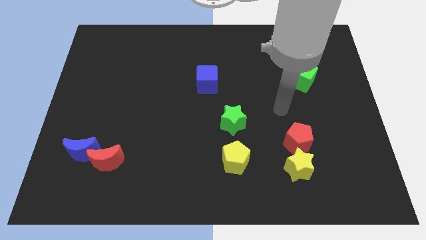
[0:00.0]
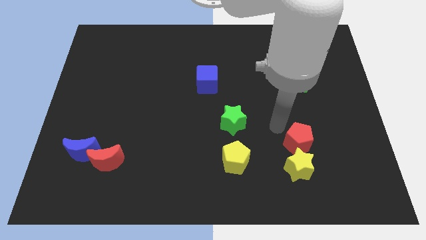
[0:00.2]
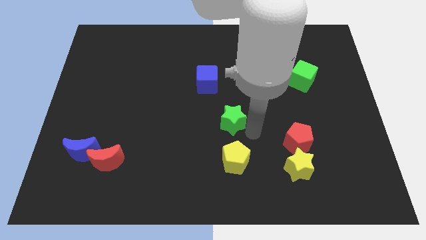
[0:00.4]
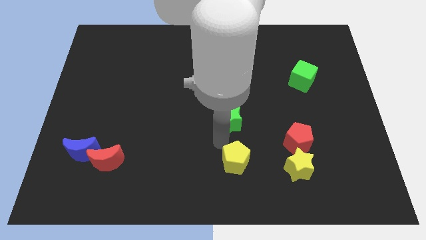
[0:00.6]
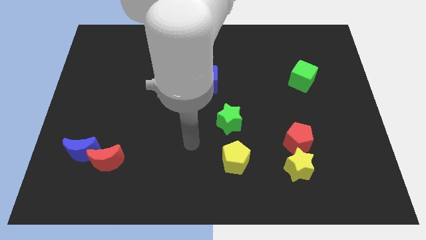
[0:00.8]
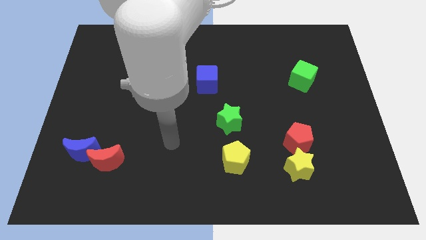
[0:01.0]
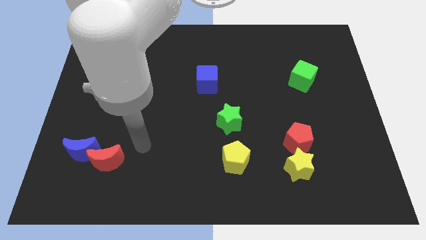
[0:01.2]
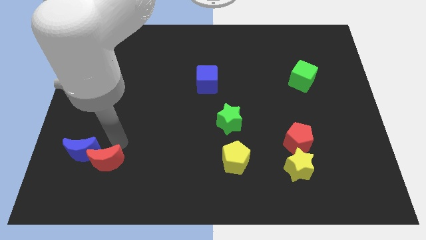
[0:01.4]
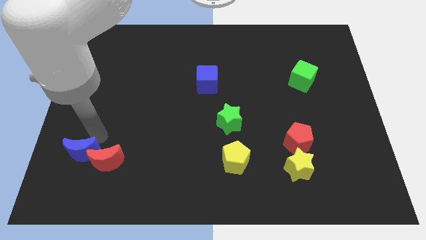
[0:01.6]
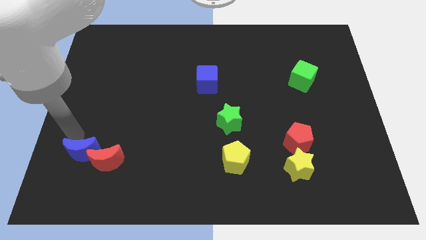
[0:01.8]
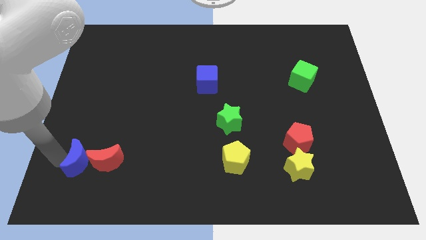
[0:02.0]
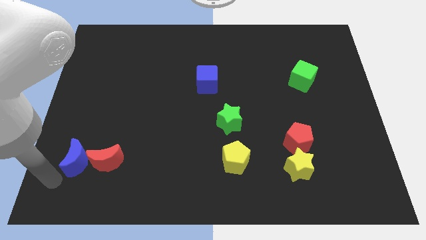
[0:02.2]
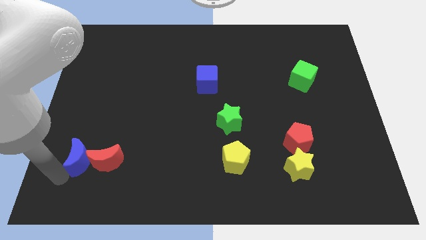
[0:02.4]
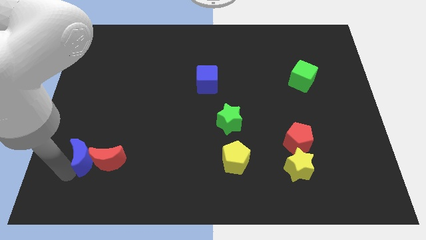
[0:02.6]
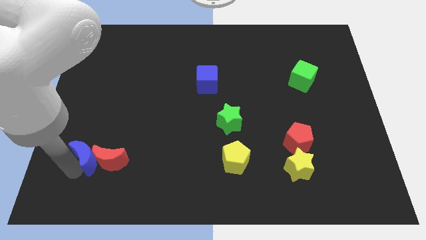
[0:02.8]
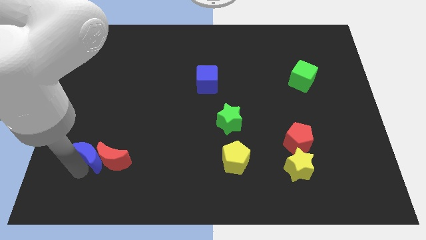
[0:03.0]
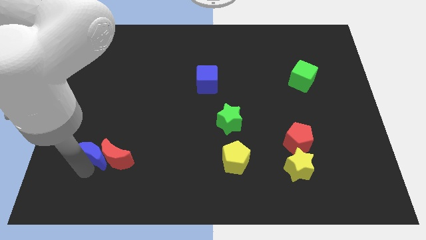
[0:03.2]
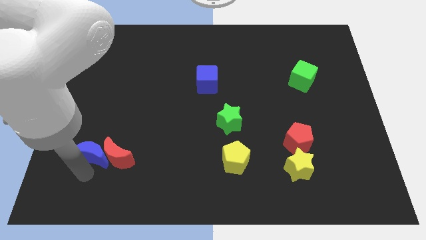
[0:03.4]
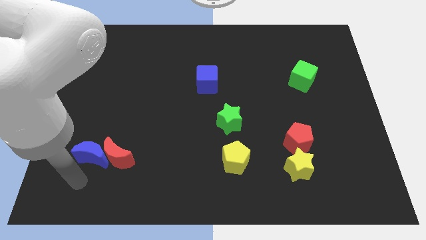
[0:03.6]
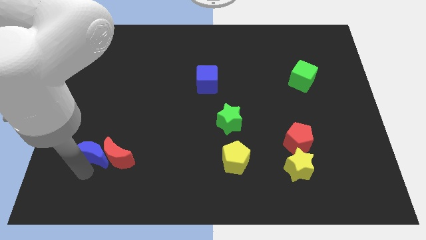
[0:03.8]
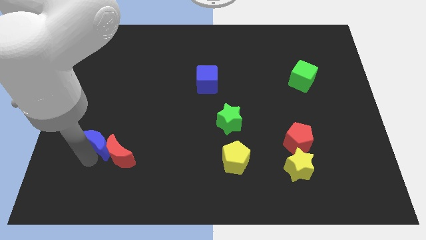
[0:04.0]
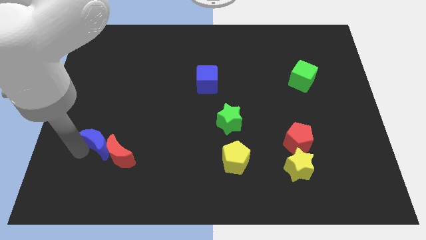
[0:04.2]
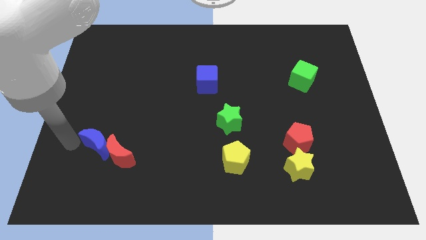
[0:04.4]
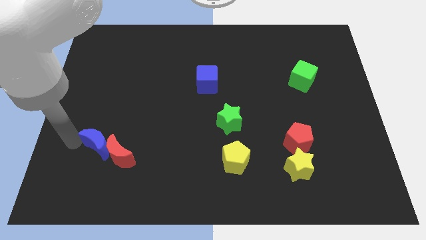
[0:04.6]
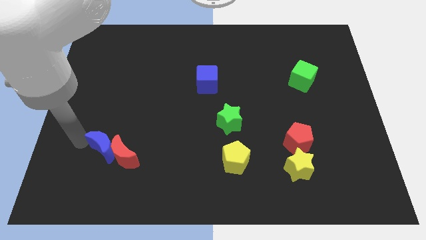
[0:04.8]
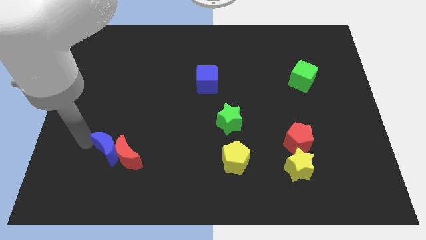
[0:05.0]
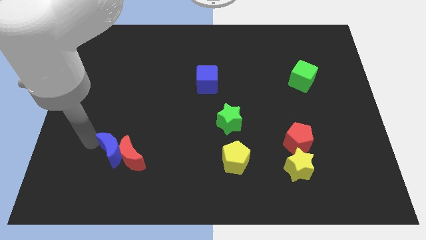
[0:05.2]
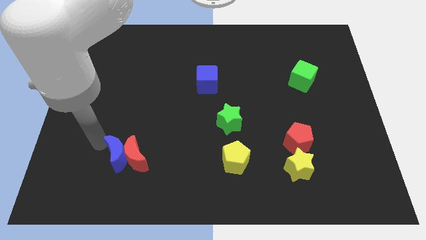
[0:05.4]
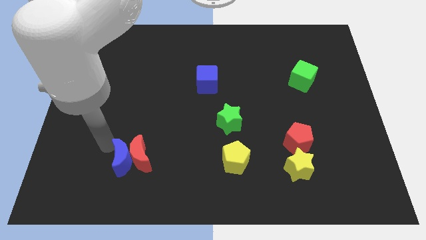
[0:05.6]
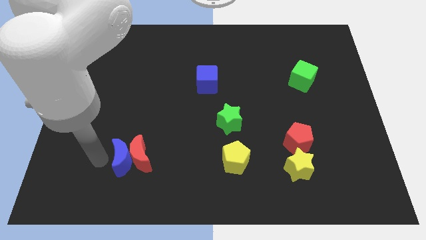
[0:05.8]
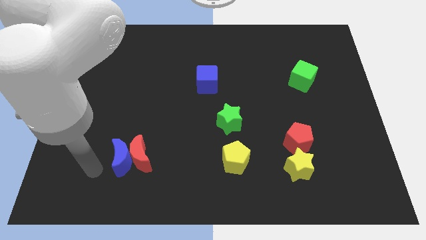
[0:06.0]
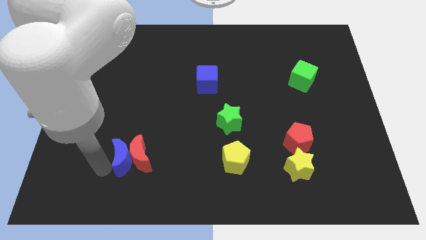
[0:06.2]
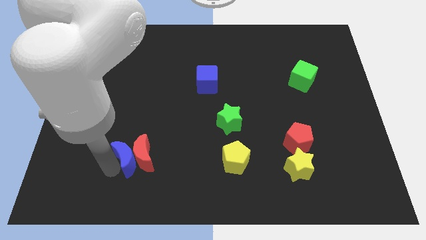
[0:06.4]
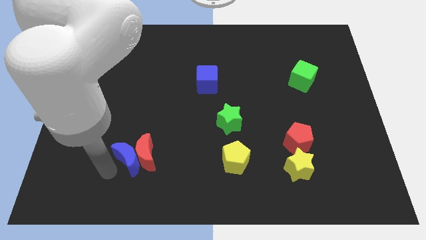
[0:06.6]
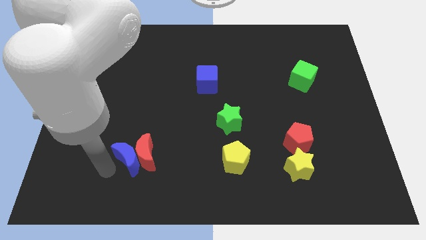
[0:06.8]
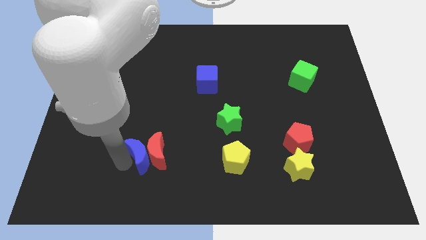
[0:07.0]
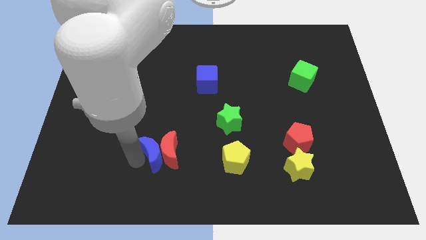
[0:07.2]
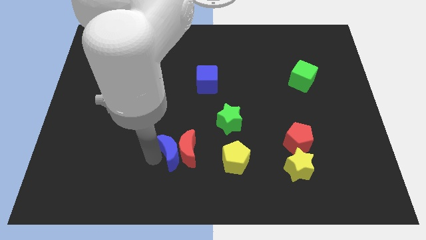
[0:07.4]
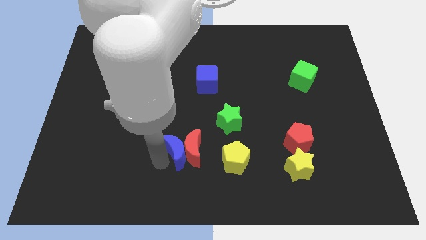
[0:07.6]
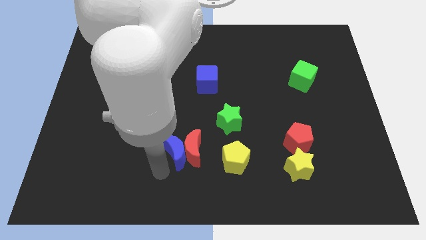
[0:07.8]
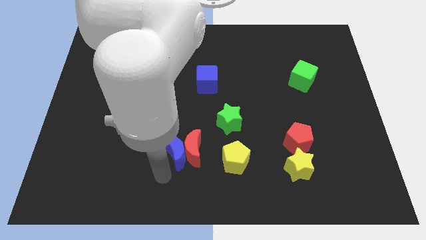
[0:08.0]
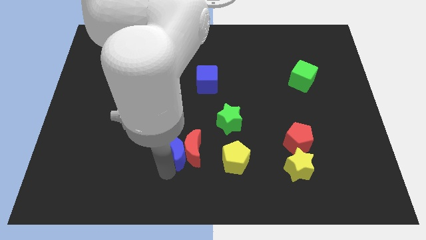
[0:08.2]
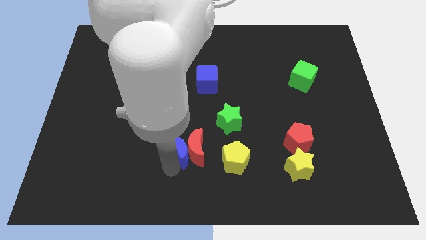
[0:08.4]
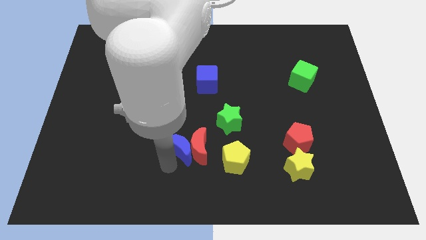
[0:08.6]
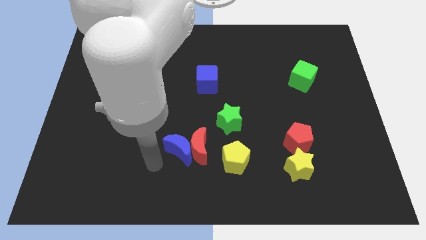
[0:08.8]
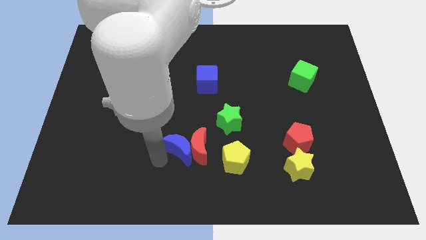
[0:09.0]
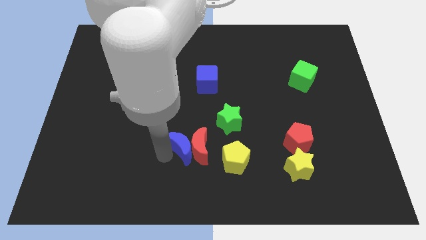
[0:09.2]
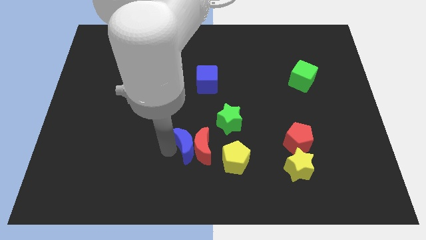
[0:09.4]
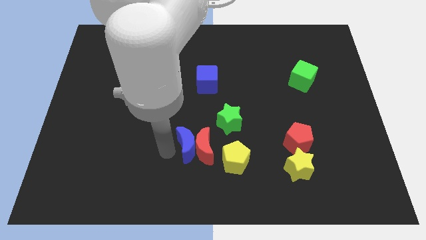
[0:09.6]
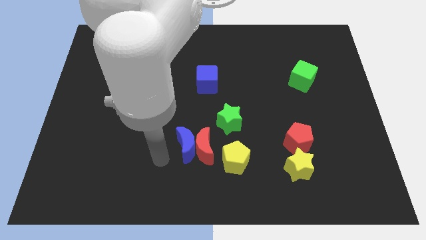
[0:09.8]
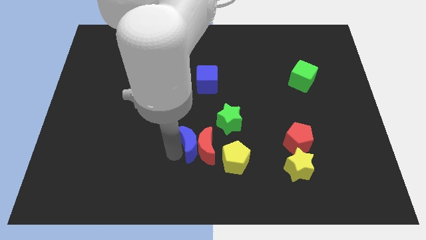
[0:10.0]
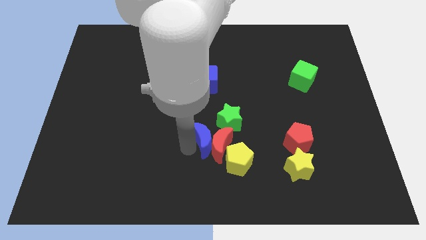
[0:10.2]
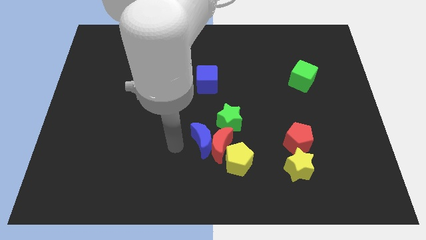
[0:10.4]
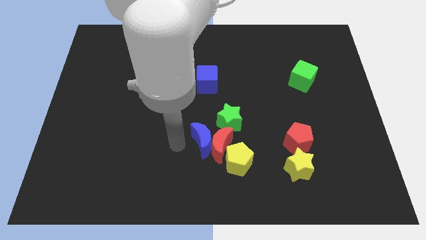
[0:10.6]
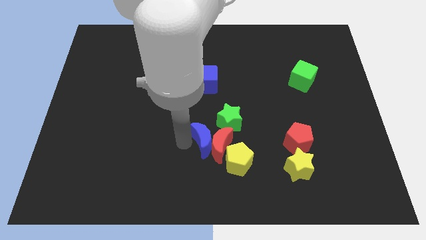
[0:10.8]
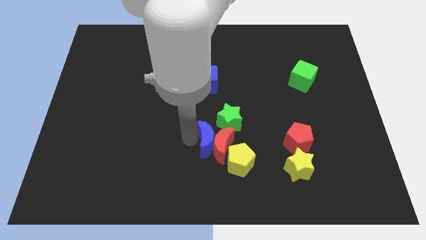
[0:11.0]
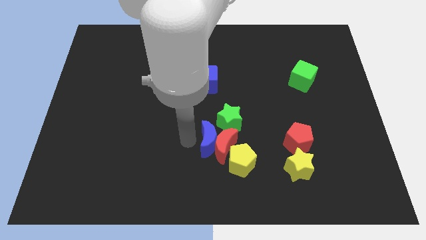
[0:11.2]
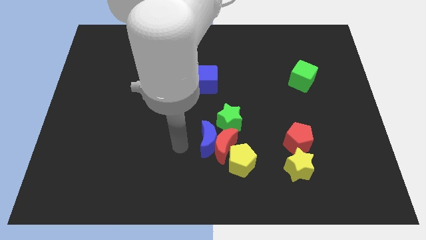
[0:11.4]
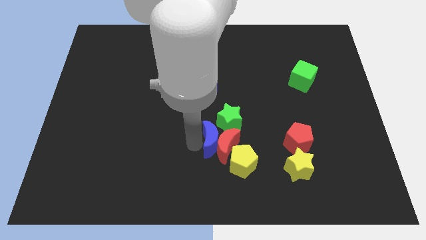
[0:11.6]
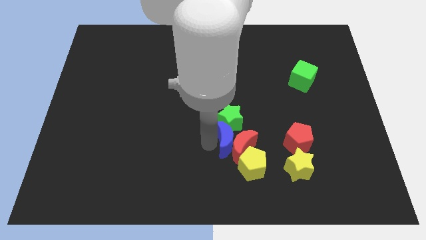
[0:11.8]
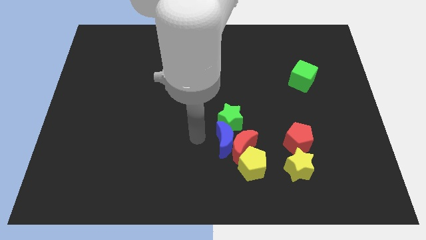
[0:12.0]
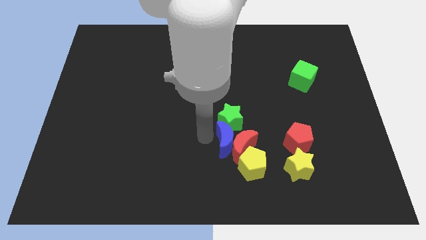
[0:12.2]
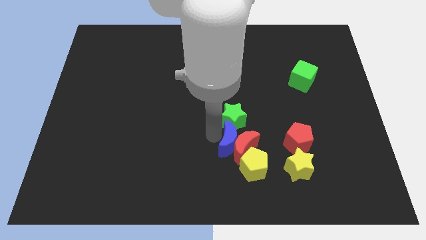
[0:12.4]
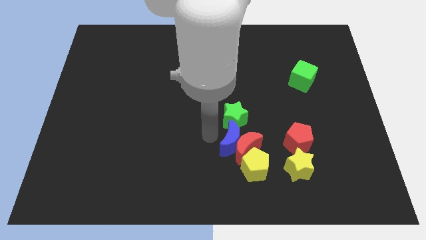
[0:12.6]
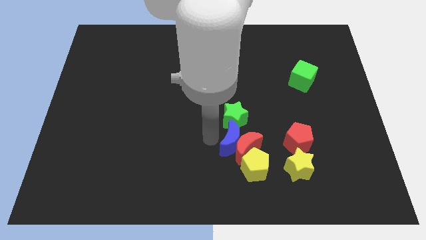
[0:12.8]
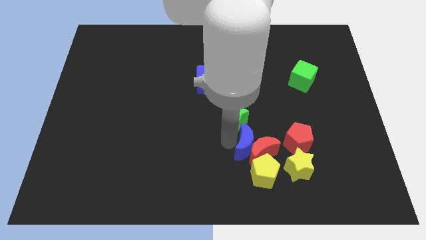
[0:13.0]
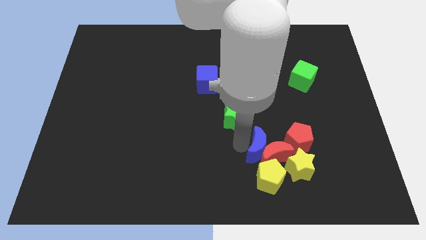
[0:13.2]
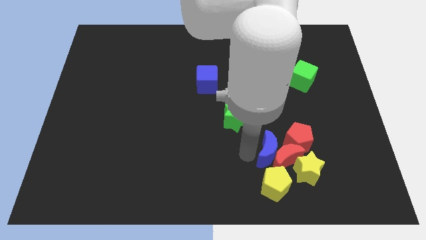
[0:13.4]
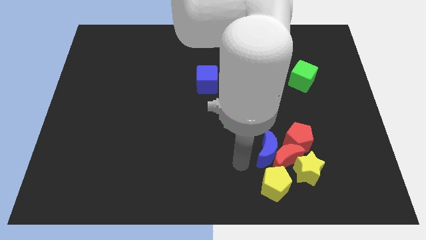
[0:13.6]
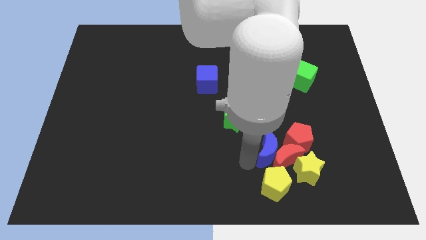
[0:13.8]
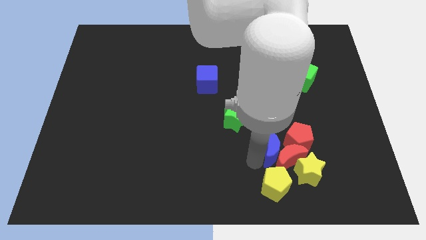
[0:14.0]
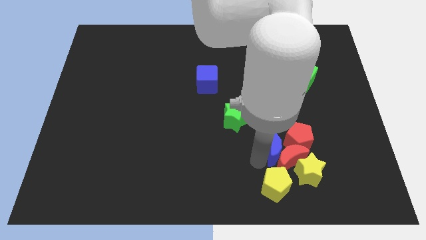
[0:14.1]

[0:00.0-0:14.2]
move the blue moon to the red pentagon

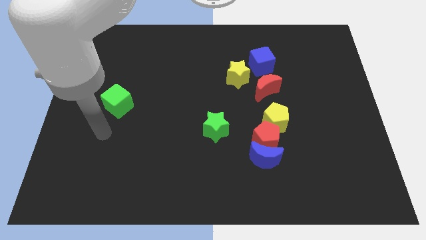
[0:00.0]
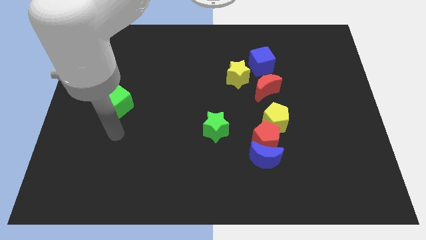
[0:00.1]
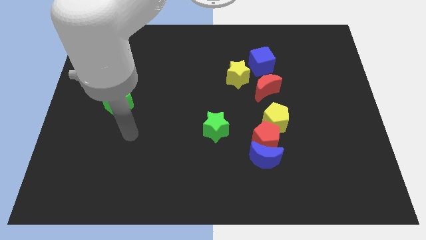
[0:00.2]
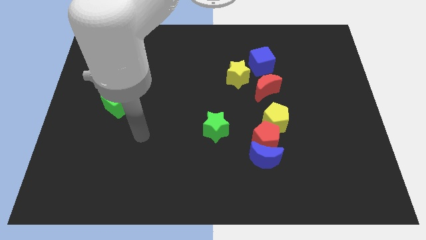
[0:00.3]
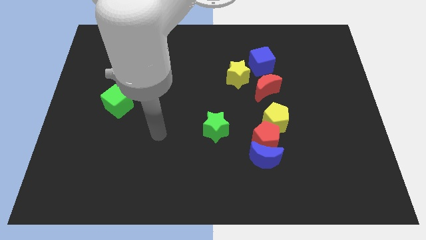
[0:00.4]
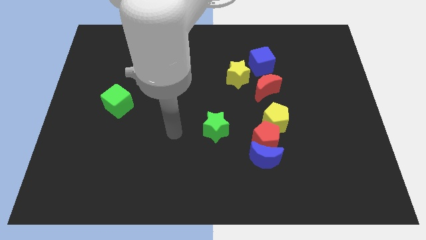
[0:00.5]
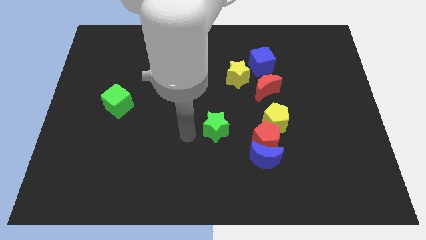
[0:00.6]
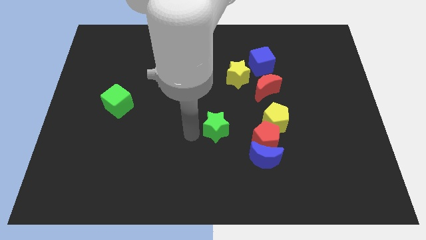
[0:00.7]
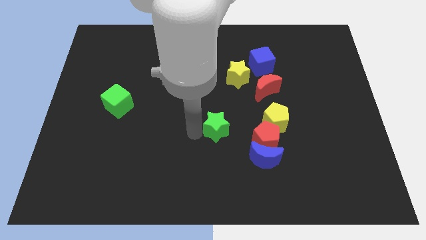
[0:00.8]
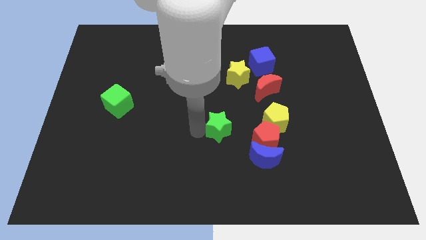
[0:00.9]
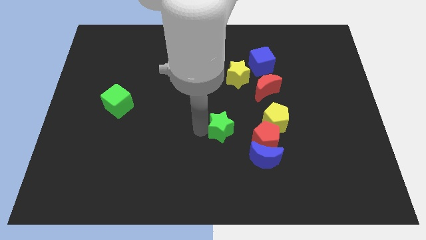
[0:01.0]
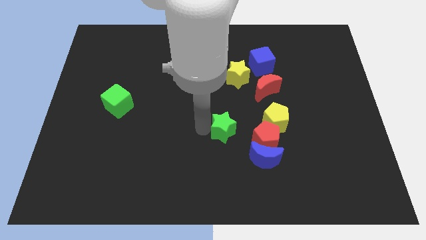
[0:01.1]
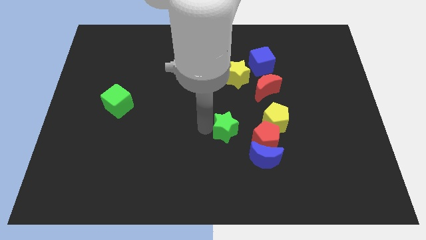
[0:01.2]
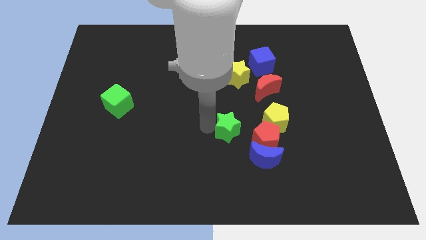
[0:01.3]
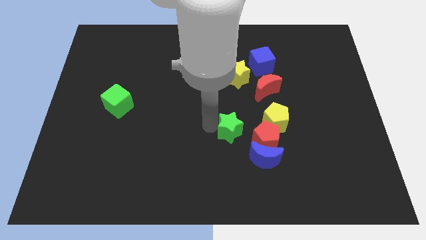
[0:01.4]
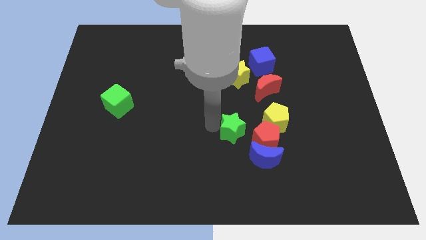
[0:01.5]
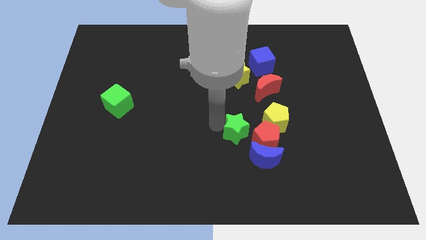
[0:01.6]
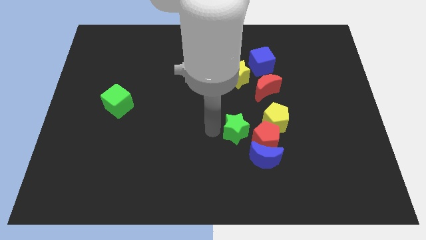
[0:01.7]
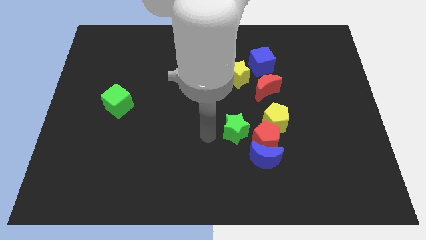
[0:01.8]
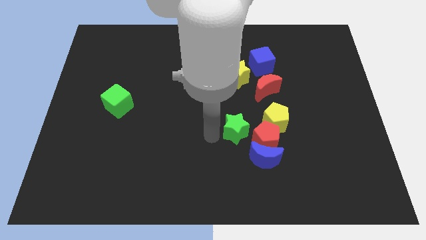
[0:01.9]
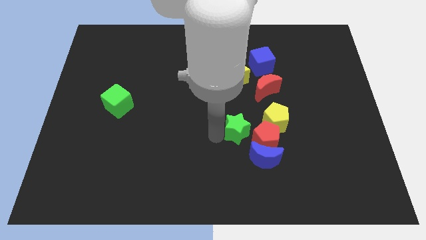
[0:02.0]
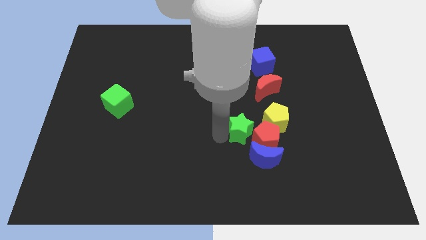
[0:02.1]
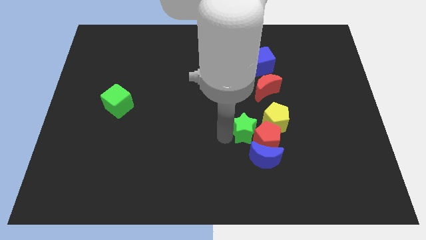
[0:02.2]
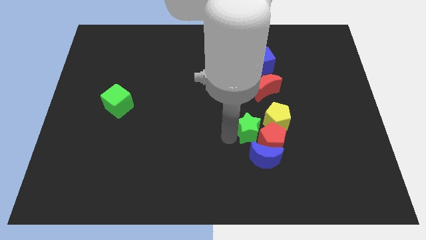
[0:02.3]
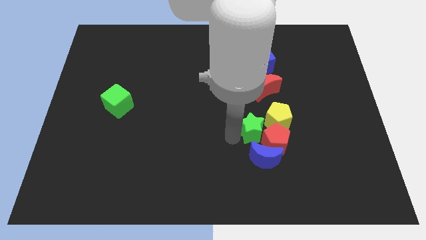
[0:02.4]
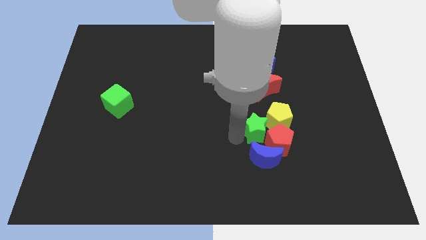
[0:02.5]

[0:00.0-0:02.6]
put the green star to the yellow pentagon
